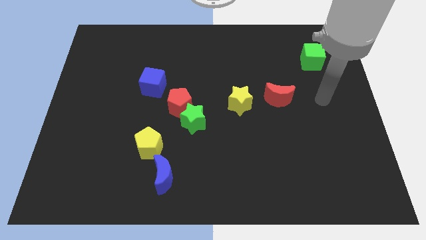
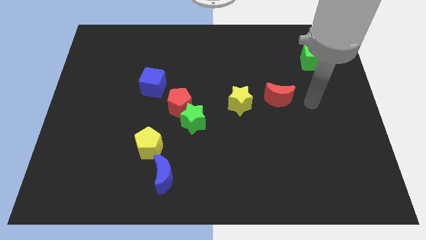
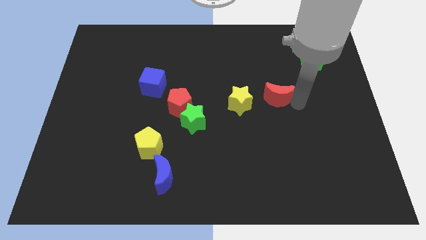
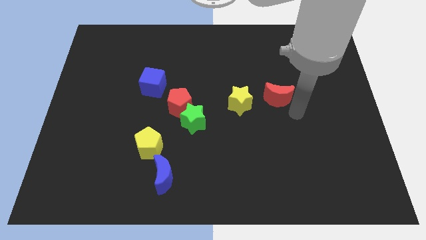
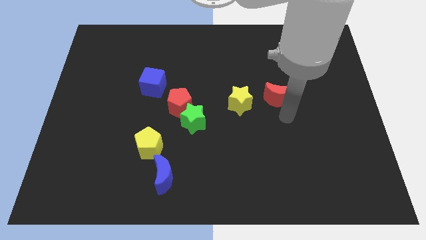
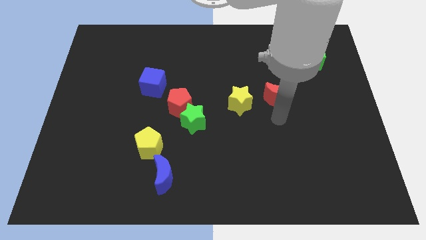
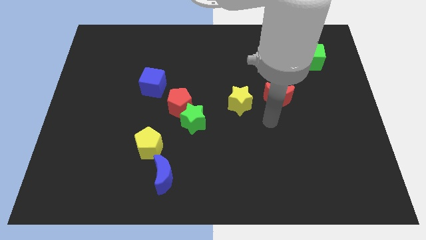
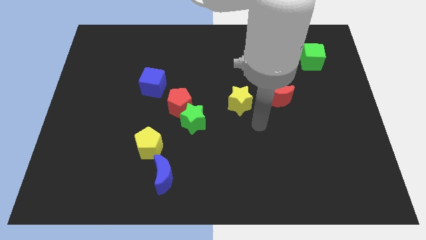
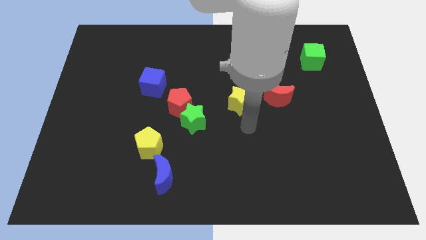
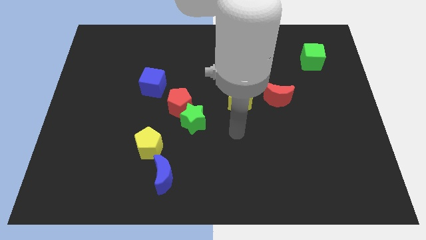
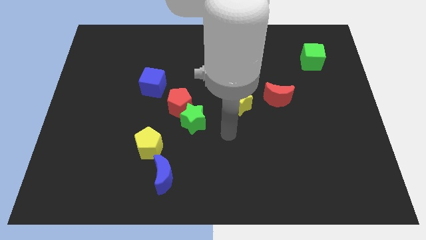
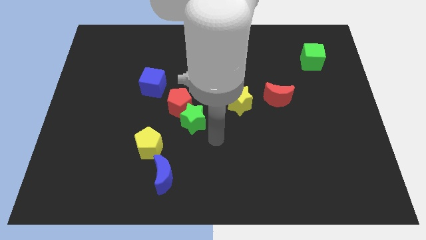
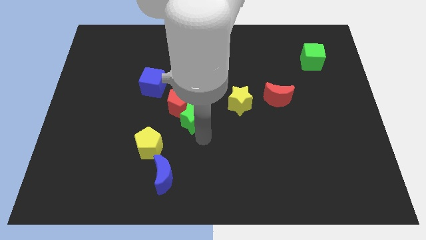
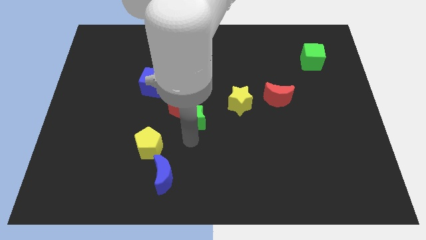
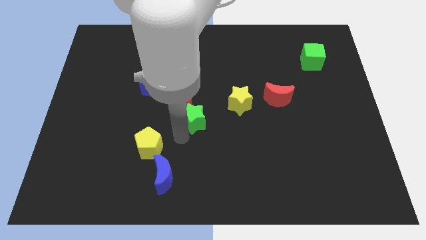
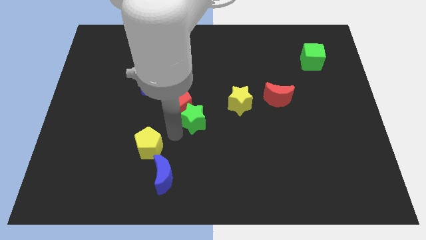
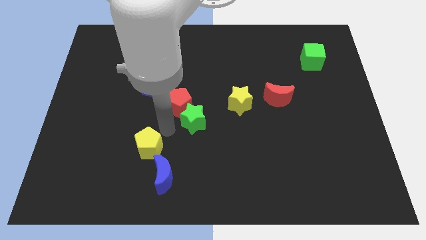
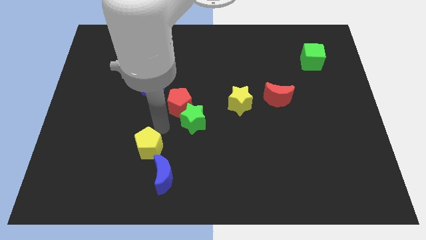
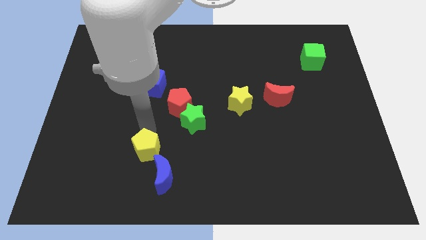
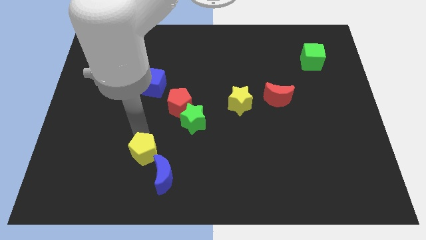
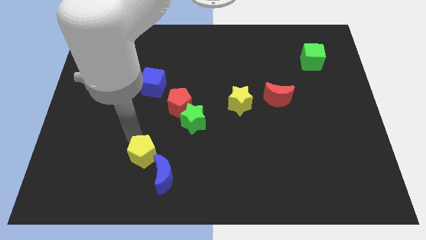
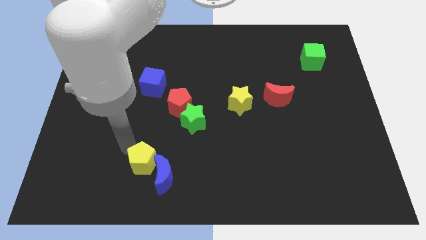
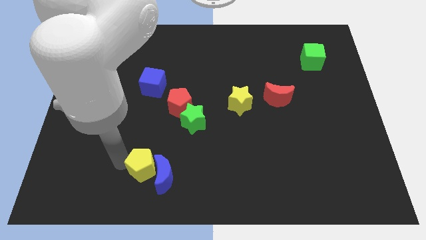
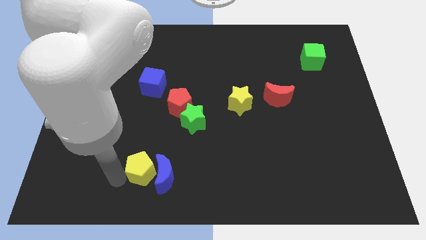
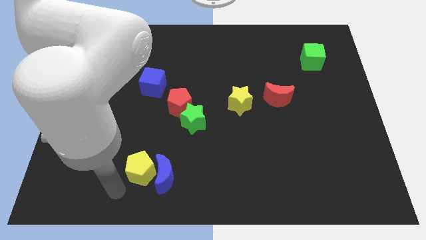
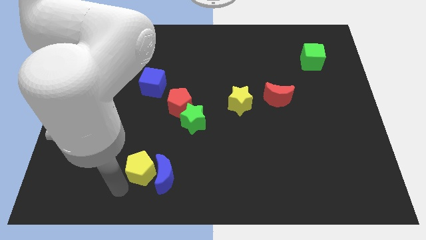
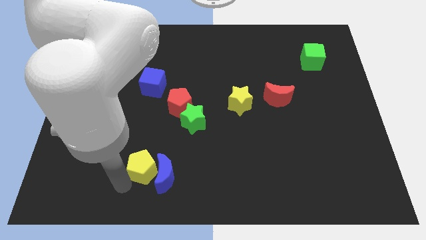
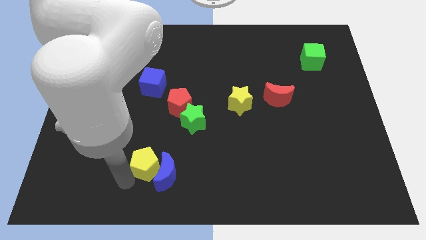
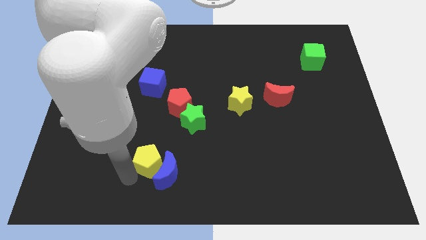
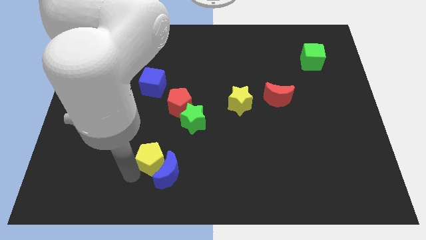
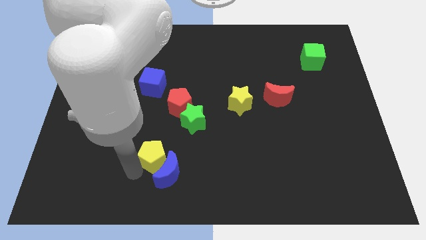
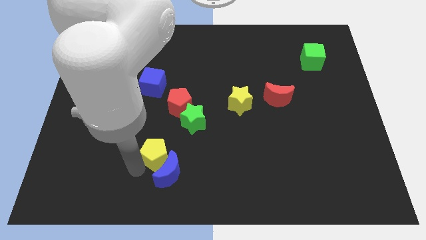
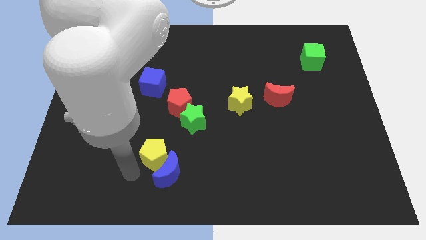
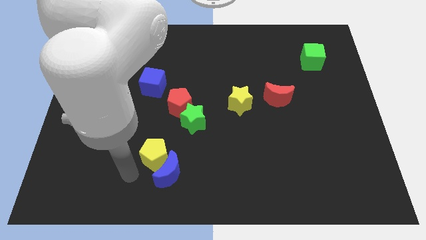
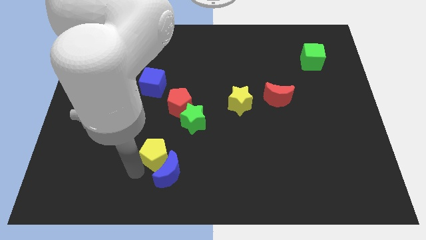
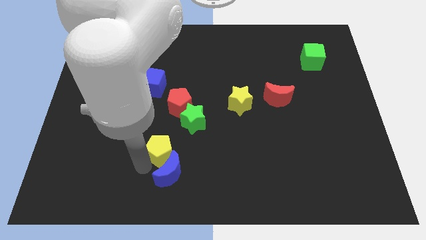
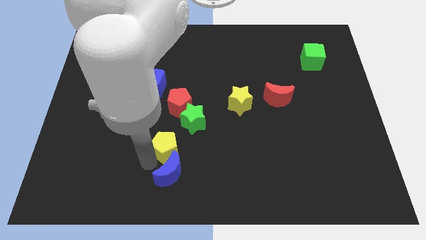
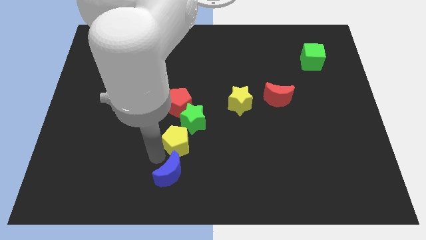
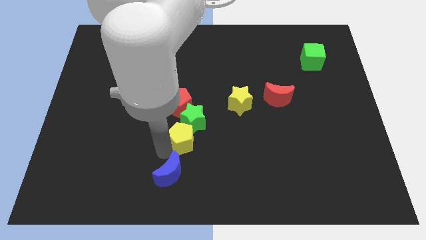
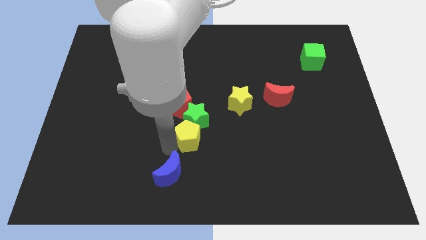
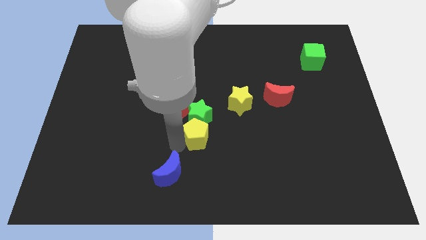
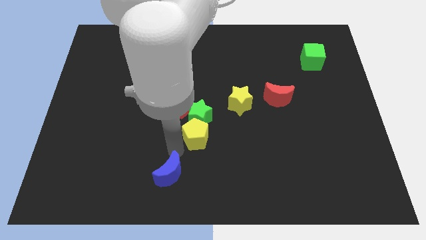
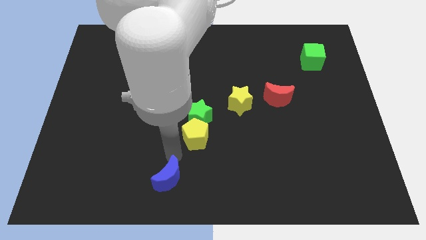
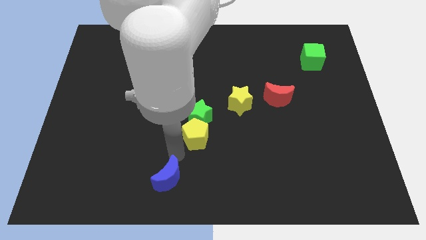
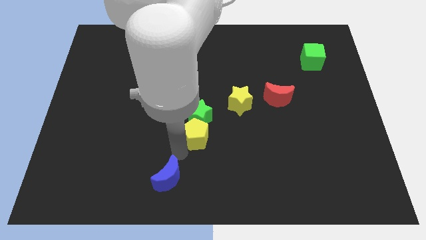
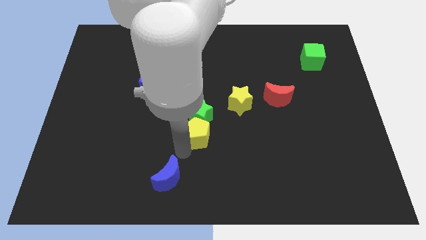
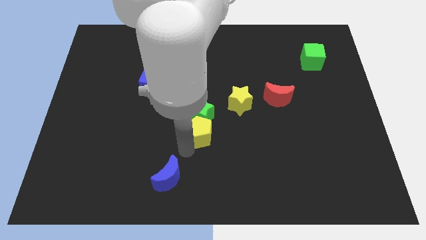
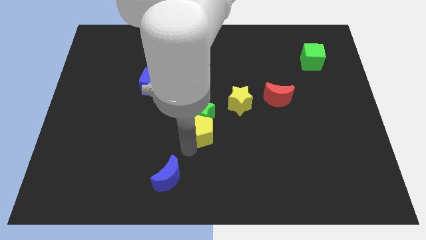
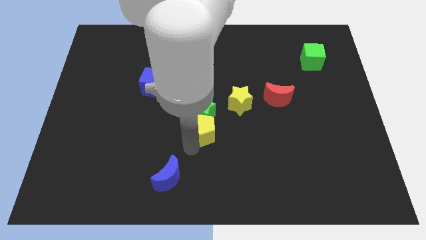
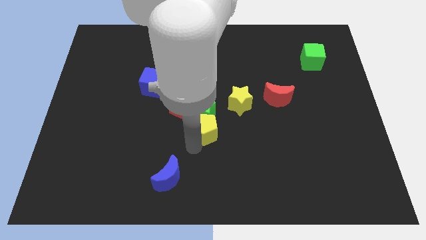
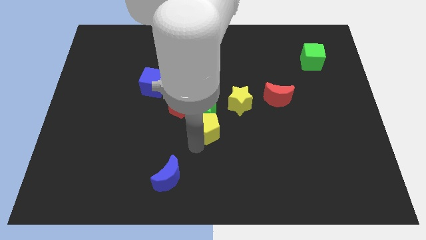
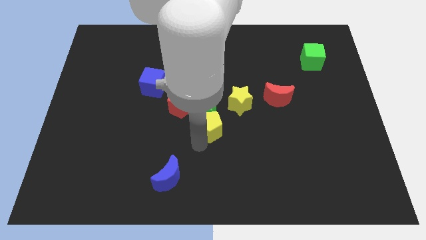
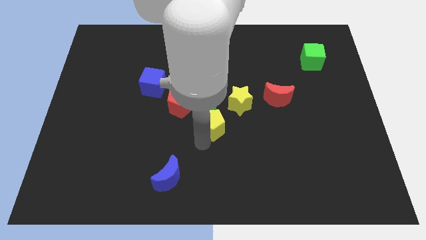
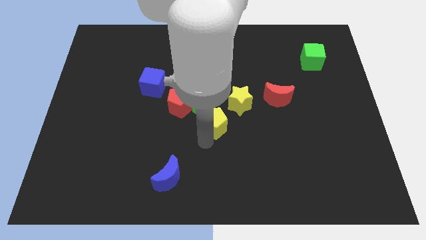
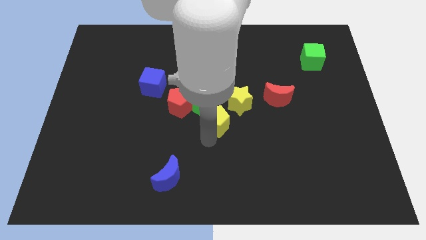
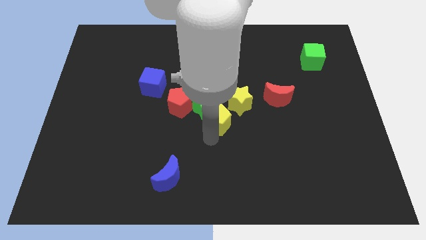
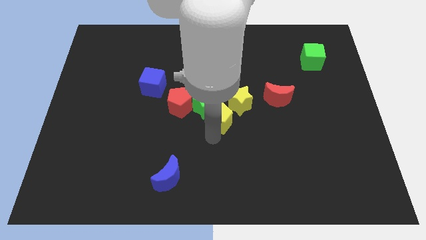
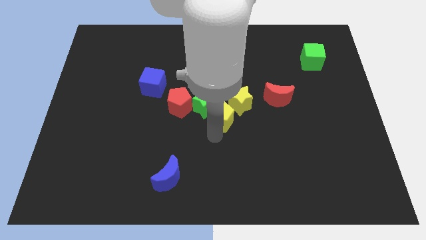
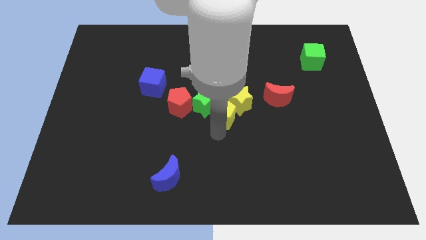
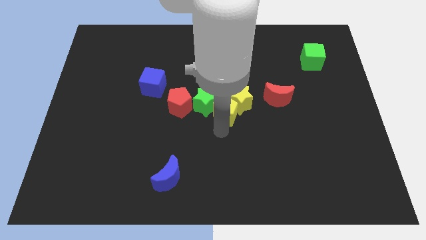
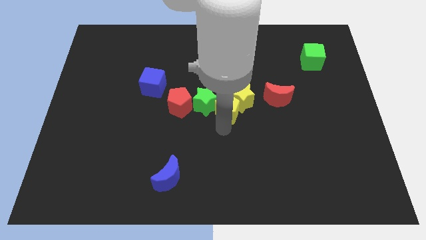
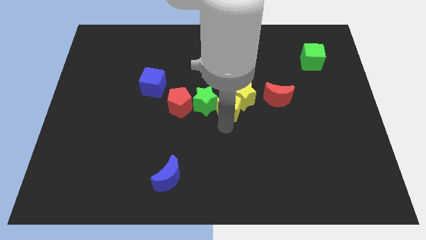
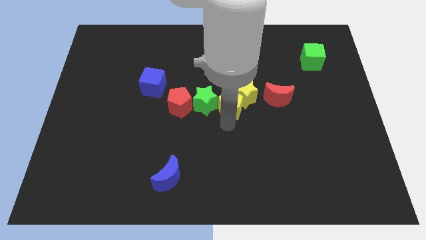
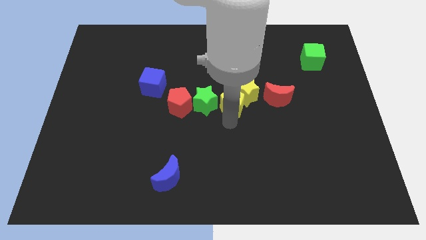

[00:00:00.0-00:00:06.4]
push the yellow pentagon up and to the right diagonally

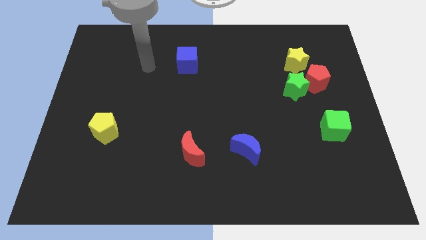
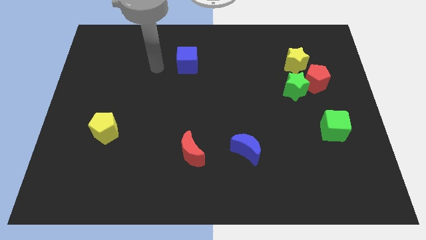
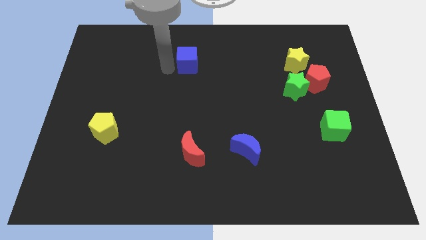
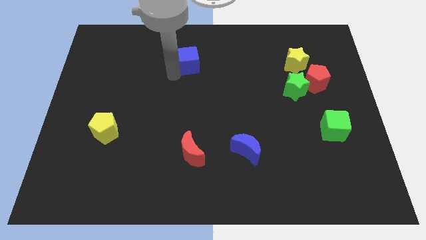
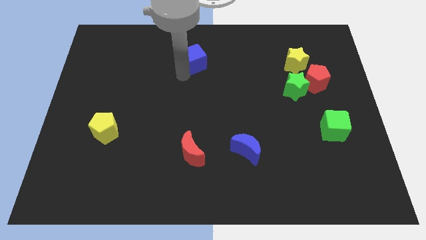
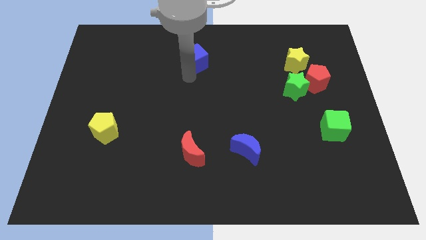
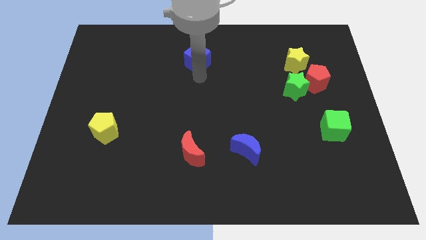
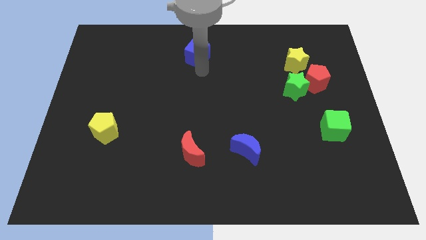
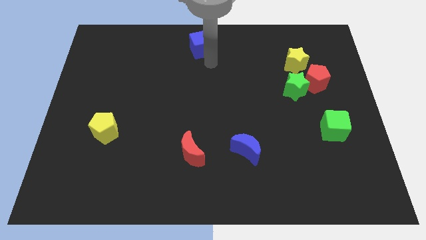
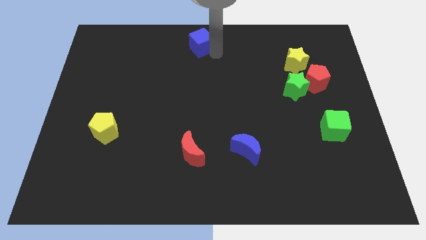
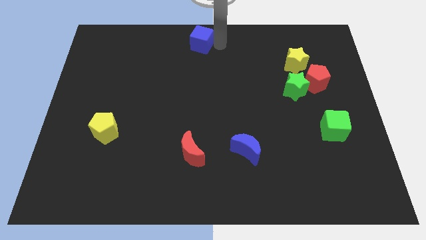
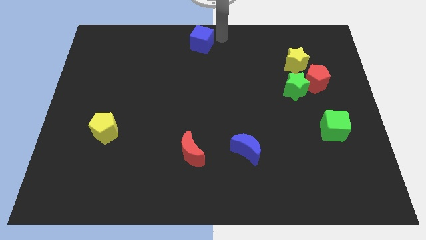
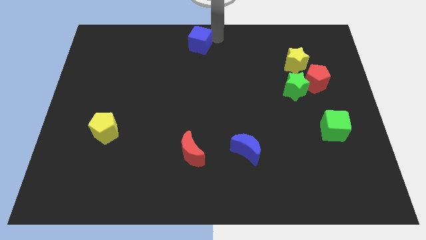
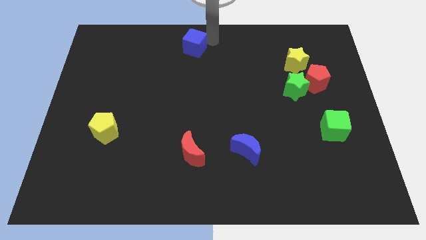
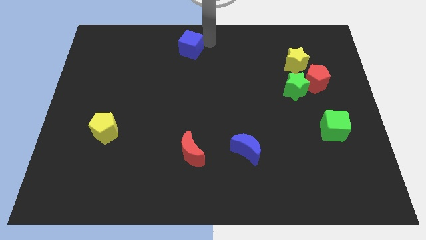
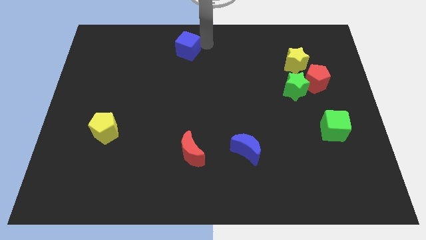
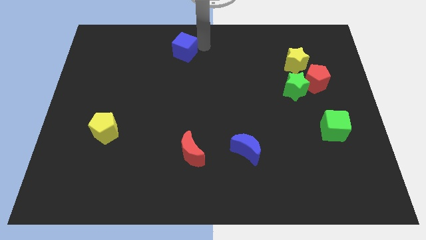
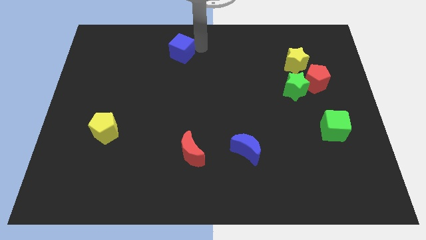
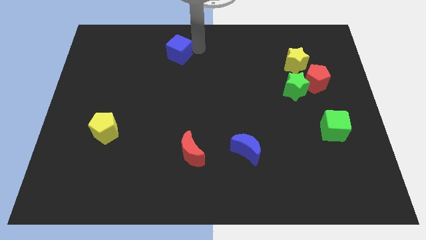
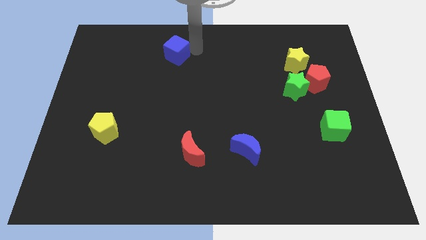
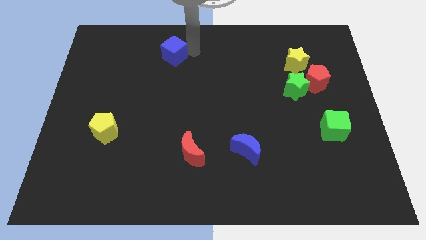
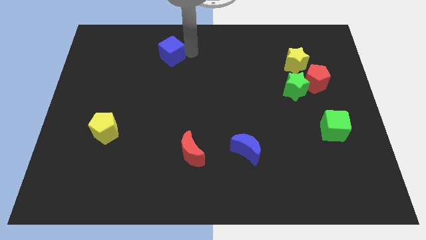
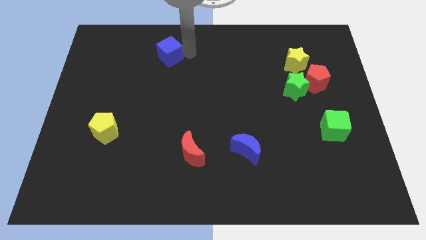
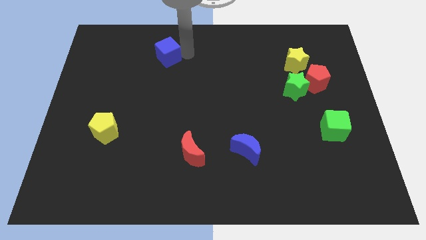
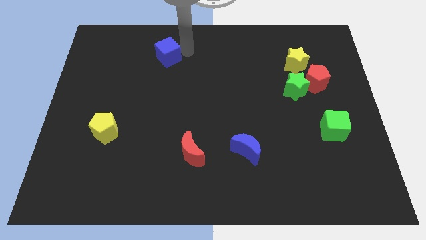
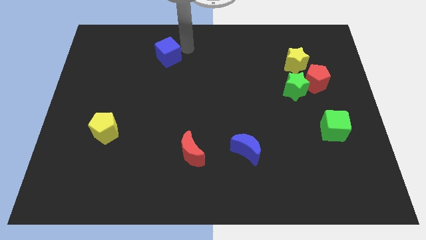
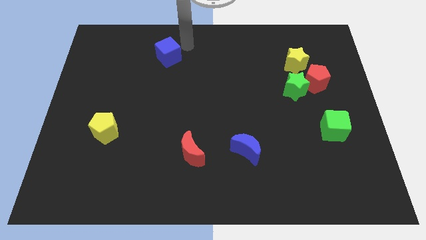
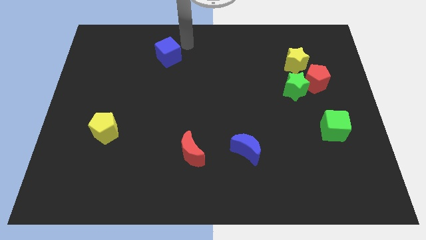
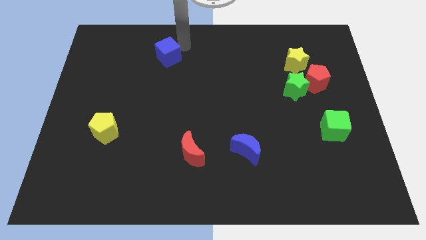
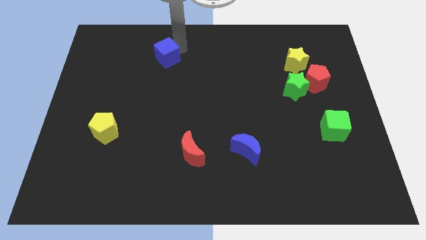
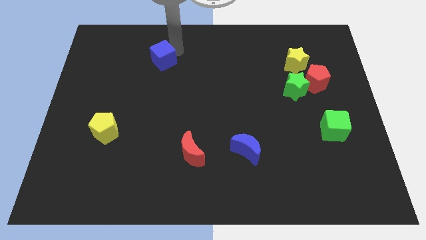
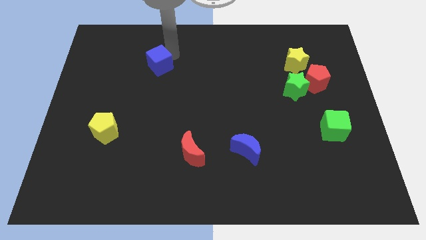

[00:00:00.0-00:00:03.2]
move the blue cube to the left somewhat
